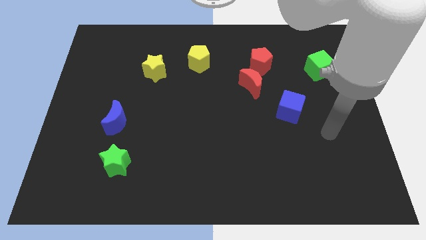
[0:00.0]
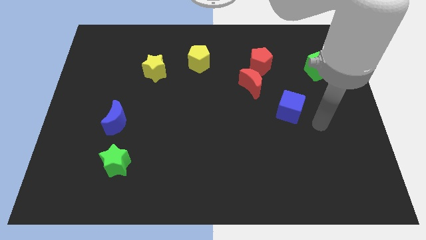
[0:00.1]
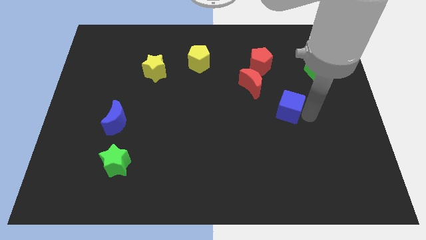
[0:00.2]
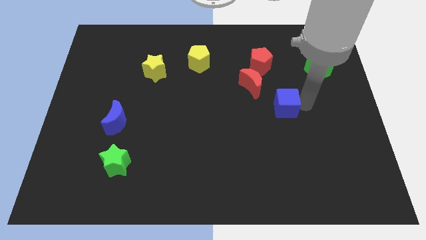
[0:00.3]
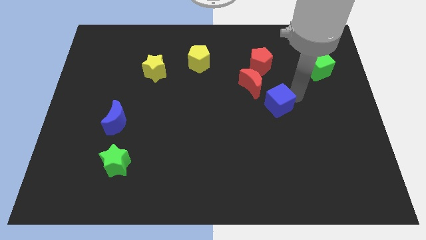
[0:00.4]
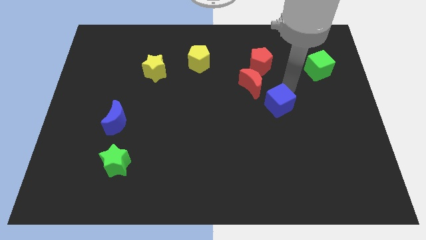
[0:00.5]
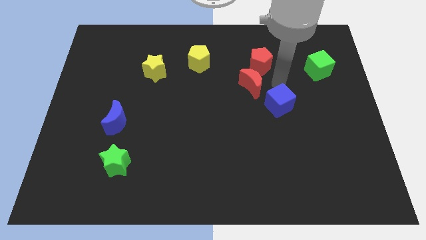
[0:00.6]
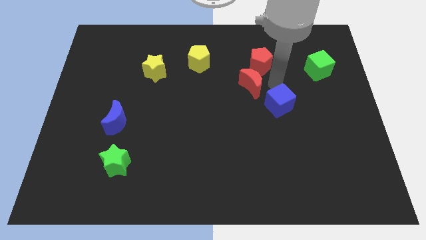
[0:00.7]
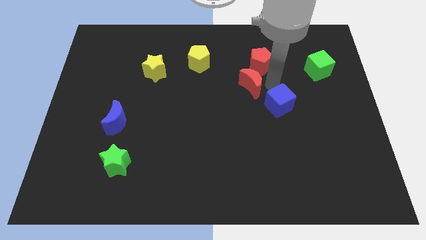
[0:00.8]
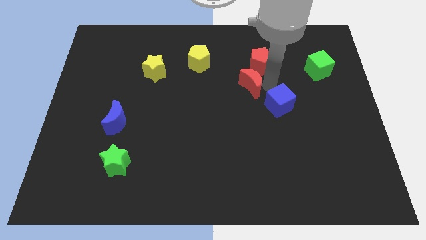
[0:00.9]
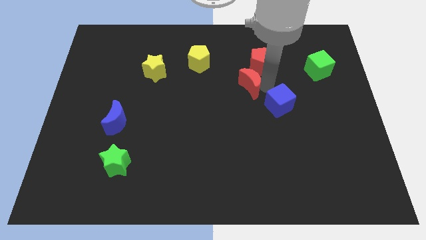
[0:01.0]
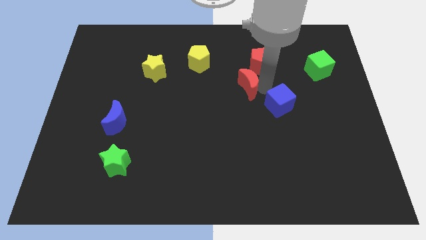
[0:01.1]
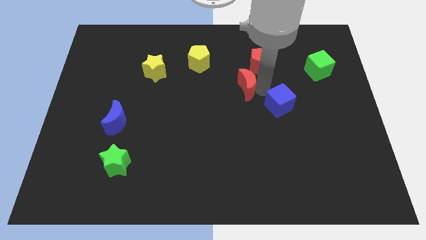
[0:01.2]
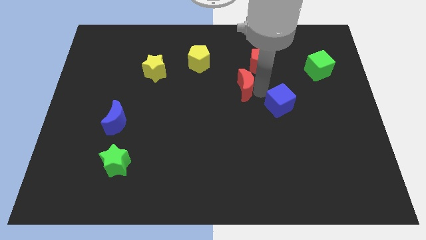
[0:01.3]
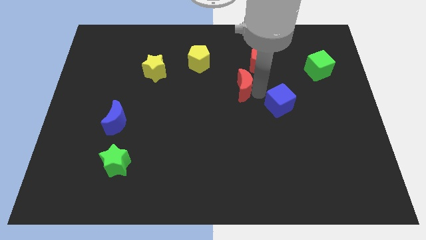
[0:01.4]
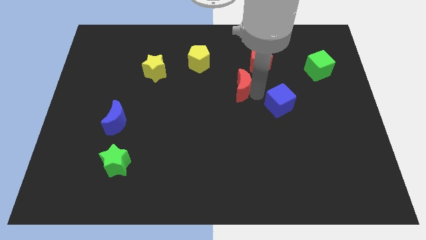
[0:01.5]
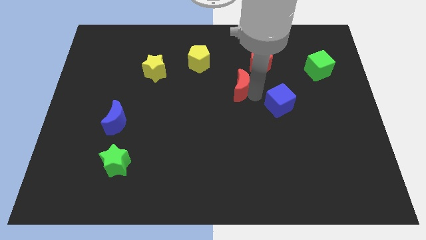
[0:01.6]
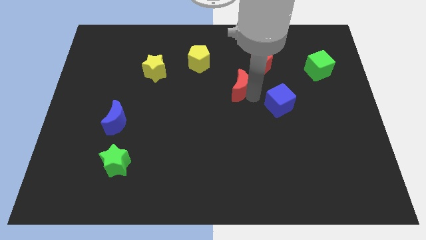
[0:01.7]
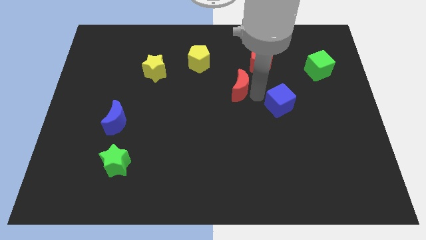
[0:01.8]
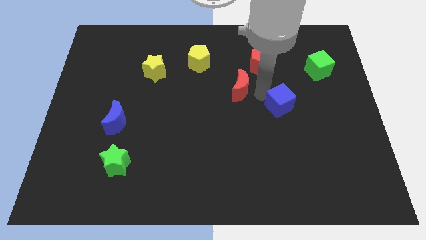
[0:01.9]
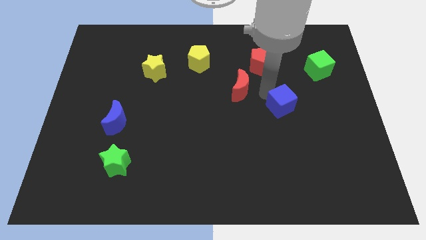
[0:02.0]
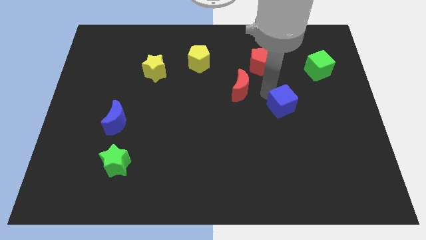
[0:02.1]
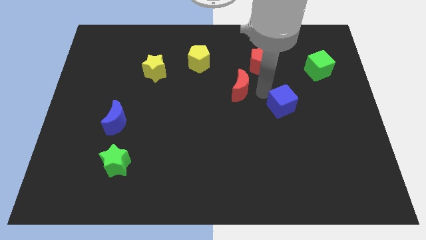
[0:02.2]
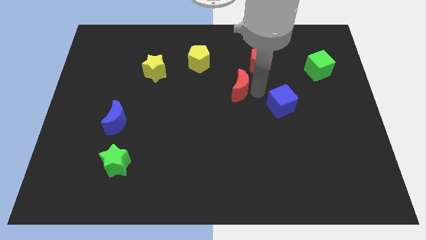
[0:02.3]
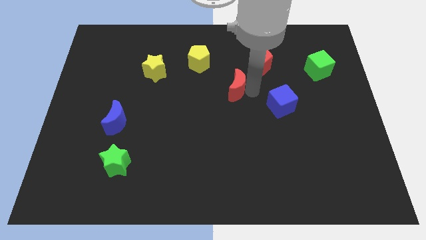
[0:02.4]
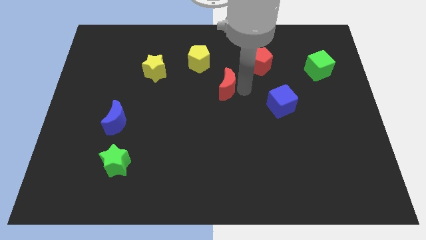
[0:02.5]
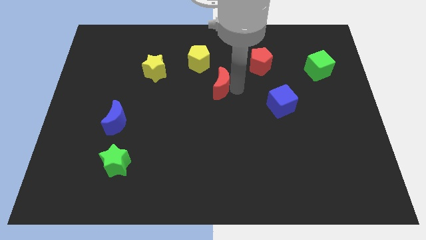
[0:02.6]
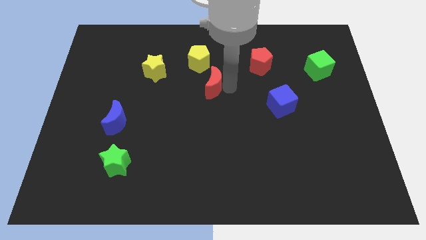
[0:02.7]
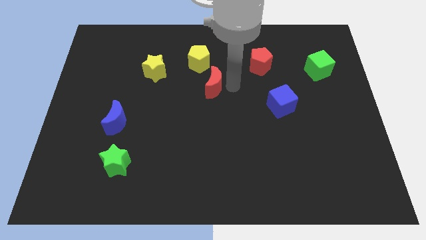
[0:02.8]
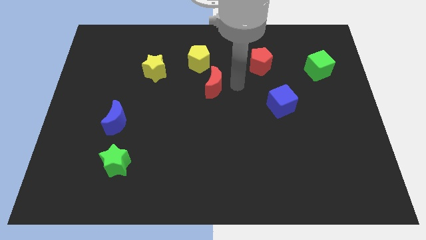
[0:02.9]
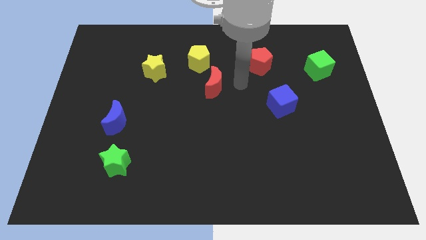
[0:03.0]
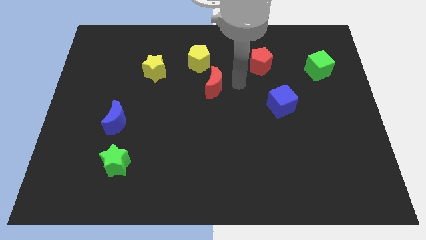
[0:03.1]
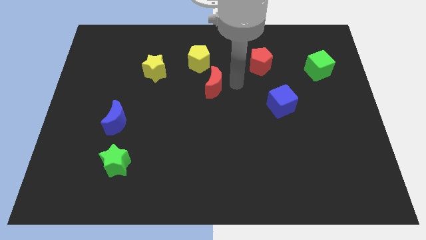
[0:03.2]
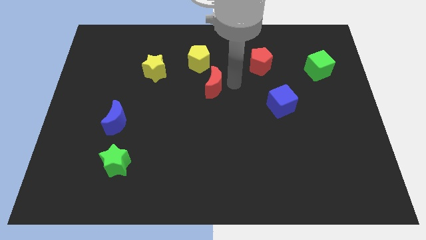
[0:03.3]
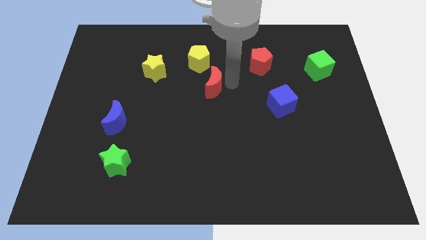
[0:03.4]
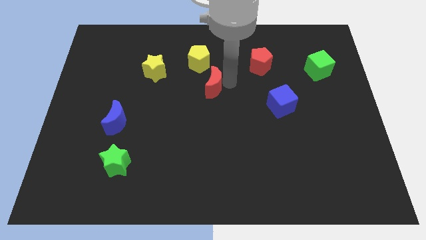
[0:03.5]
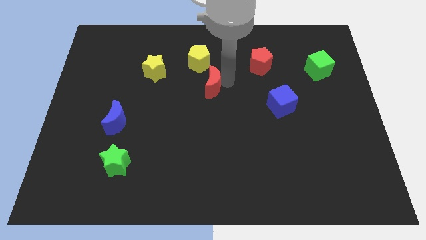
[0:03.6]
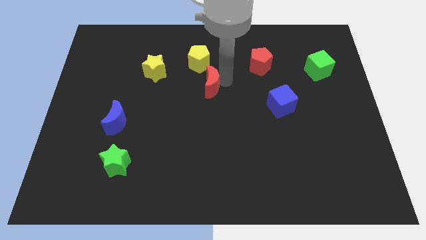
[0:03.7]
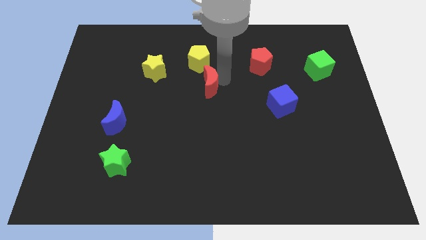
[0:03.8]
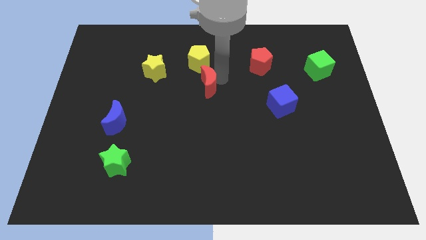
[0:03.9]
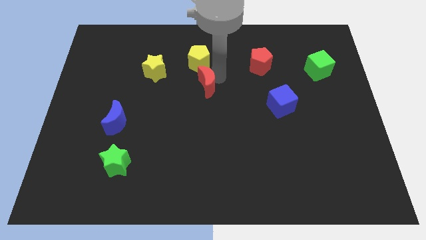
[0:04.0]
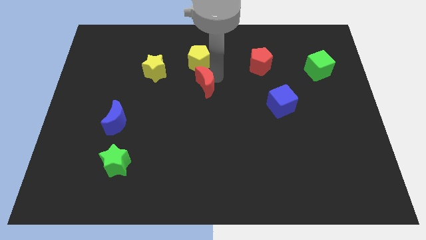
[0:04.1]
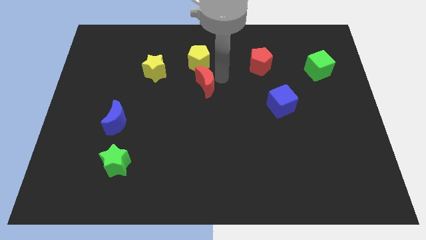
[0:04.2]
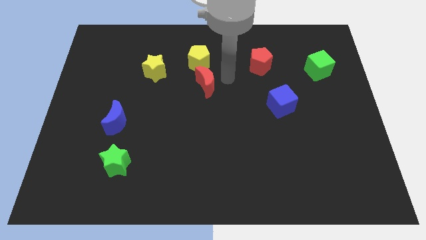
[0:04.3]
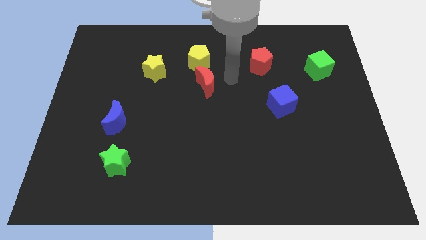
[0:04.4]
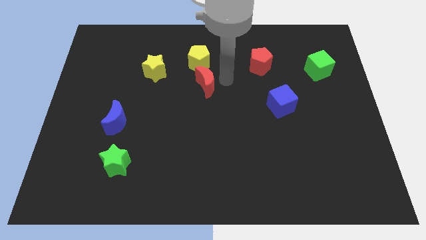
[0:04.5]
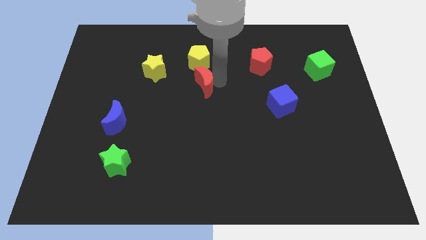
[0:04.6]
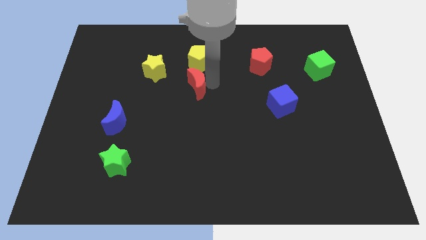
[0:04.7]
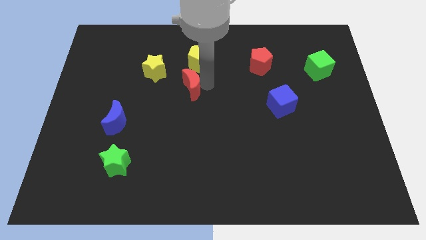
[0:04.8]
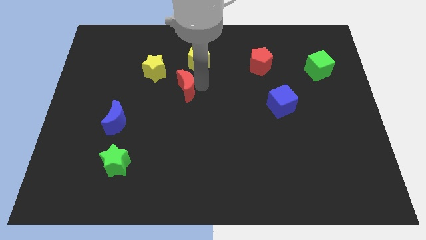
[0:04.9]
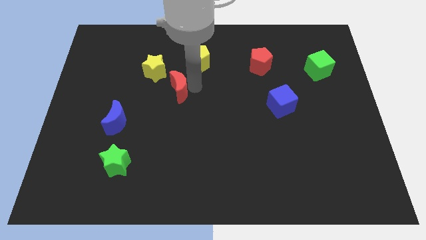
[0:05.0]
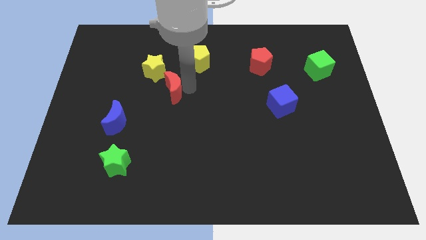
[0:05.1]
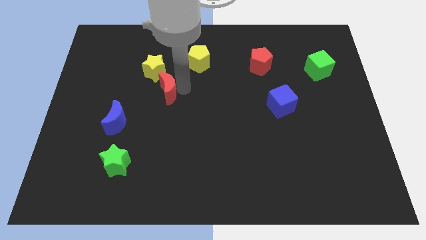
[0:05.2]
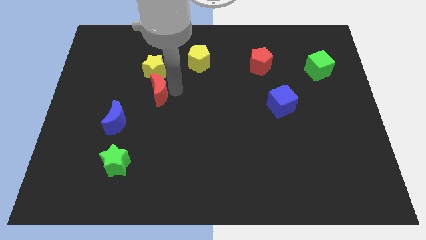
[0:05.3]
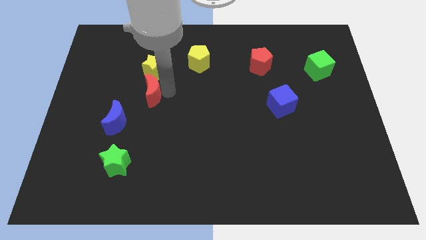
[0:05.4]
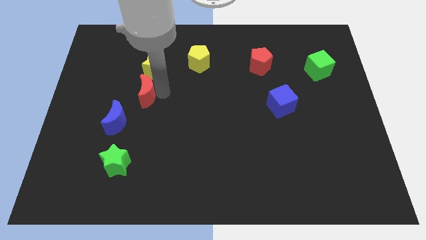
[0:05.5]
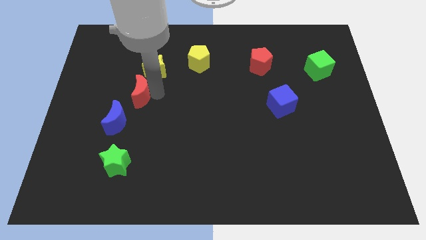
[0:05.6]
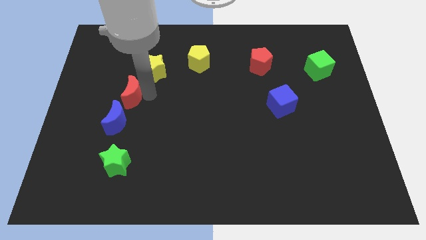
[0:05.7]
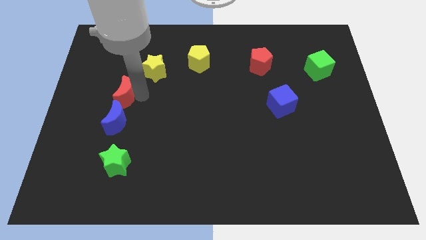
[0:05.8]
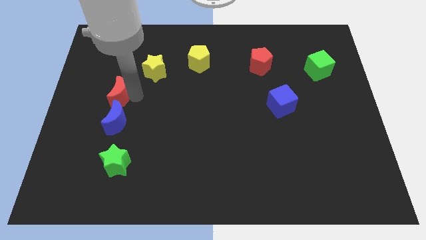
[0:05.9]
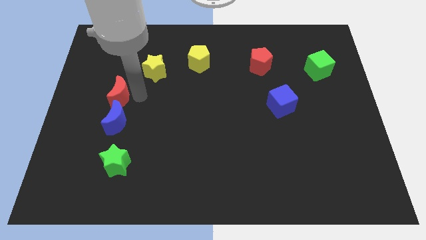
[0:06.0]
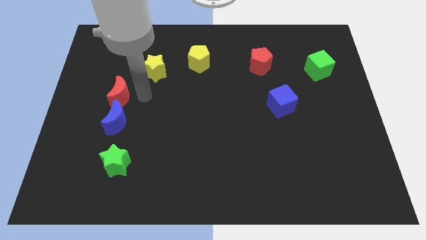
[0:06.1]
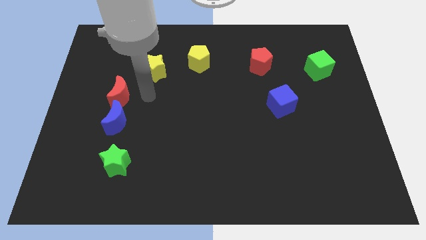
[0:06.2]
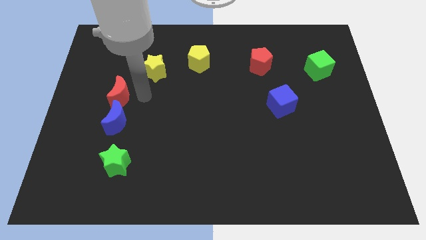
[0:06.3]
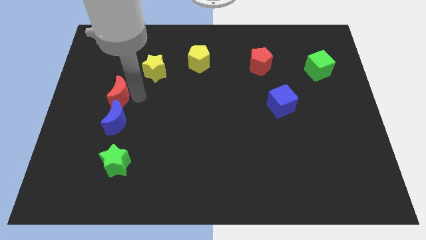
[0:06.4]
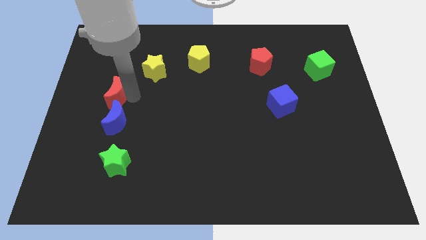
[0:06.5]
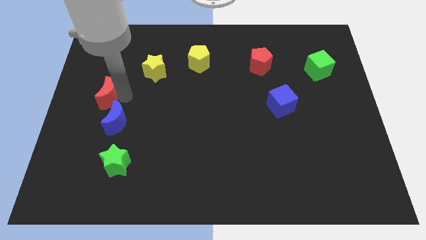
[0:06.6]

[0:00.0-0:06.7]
slide the red moon to the left side of the board
